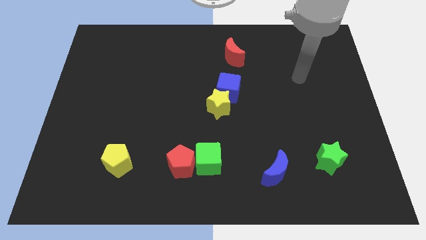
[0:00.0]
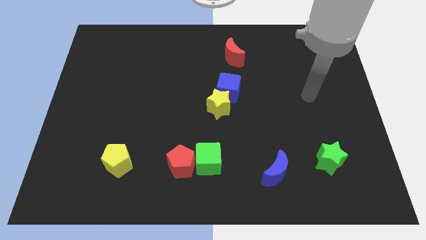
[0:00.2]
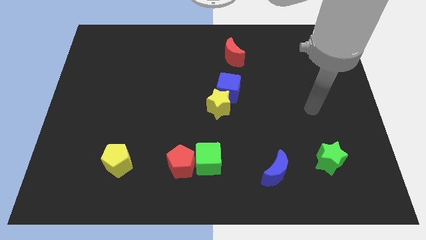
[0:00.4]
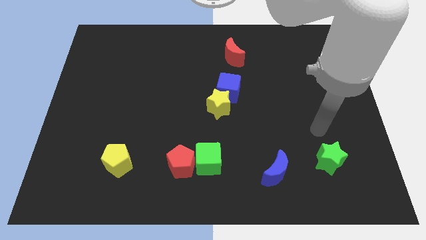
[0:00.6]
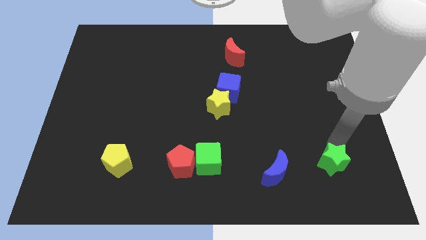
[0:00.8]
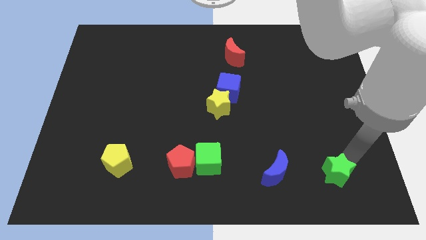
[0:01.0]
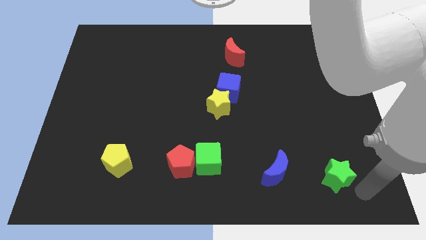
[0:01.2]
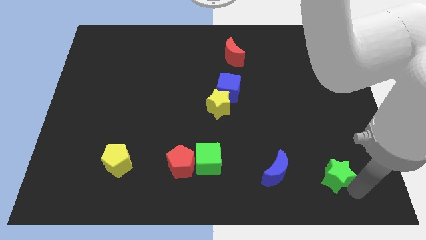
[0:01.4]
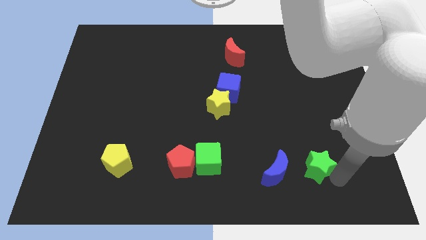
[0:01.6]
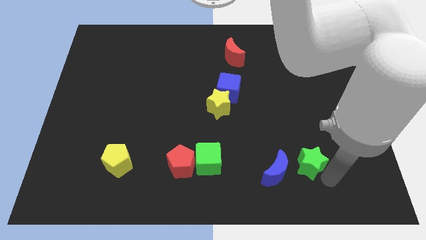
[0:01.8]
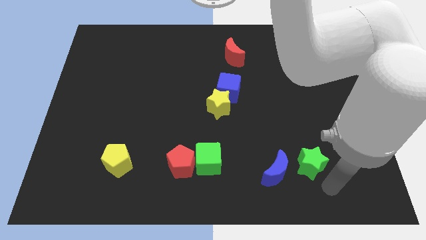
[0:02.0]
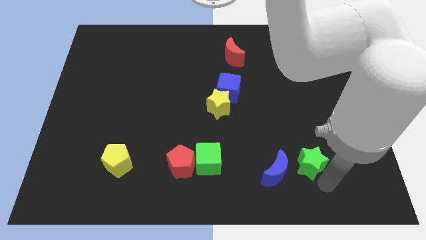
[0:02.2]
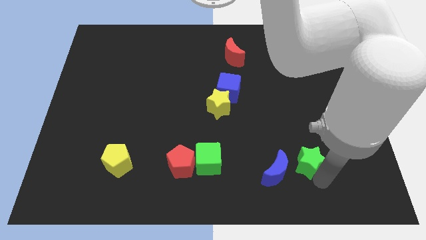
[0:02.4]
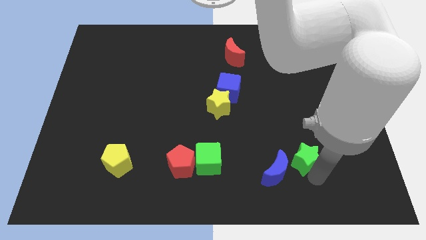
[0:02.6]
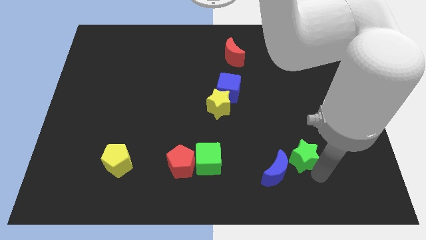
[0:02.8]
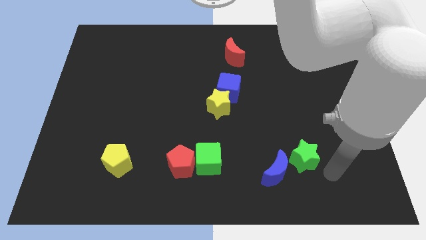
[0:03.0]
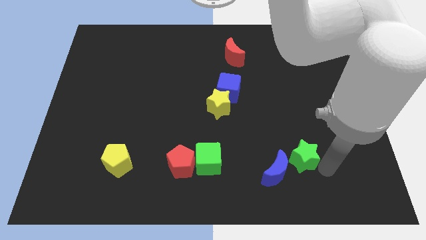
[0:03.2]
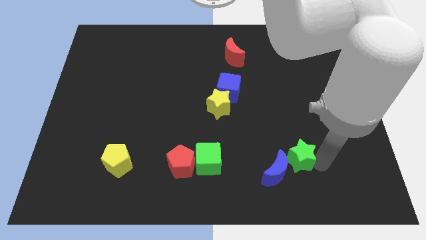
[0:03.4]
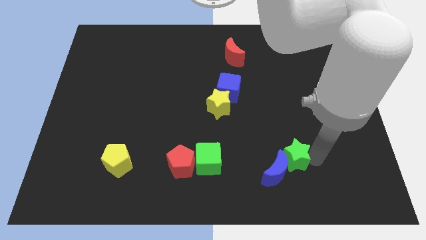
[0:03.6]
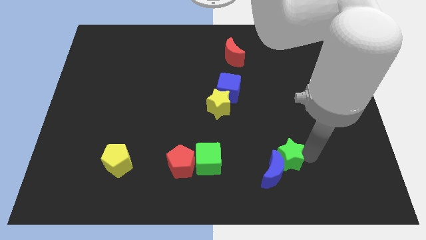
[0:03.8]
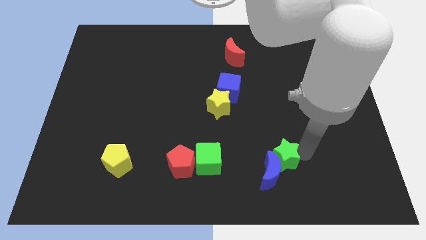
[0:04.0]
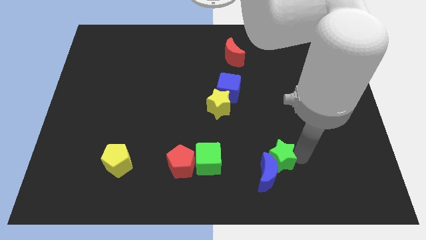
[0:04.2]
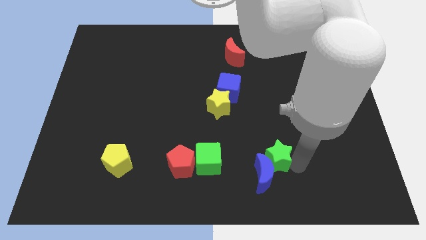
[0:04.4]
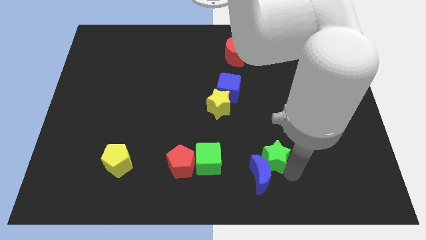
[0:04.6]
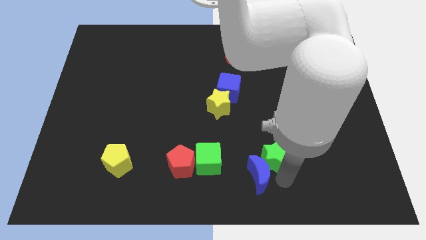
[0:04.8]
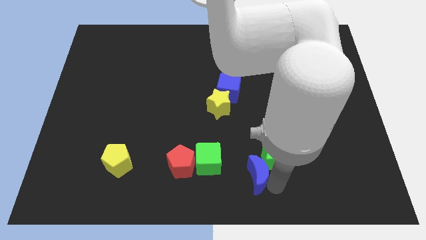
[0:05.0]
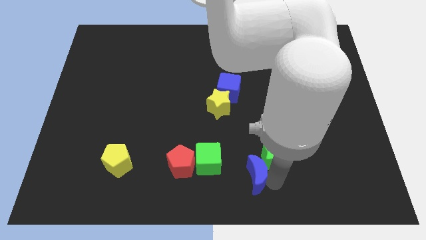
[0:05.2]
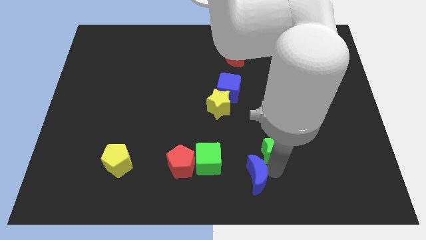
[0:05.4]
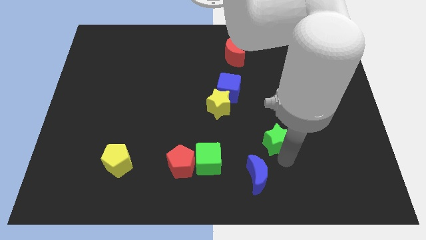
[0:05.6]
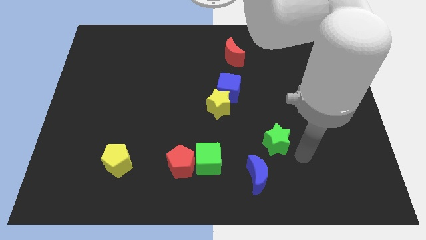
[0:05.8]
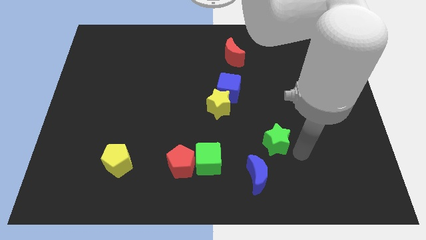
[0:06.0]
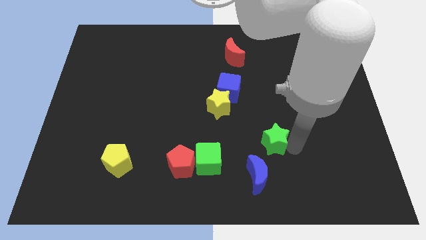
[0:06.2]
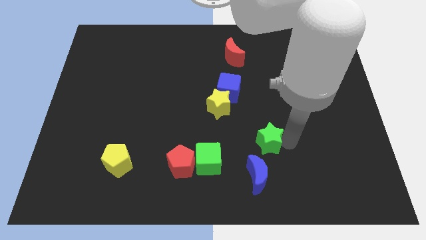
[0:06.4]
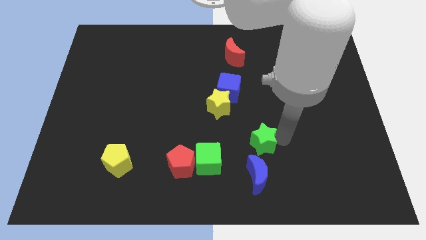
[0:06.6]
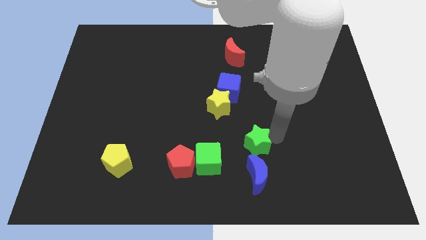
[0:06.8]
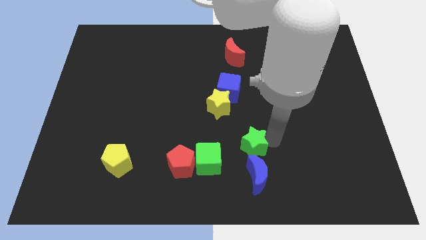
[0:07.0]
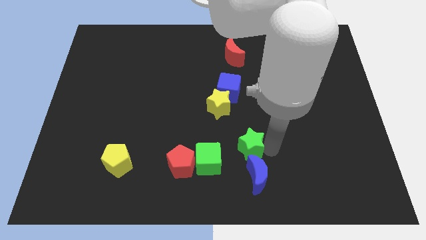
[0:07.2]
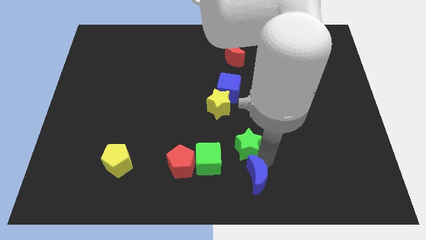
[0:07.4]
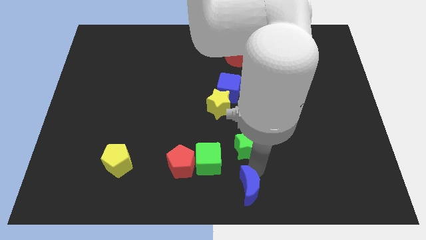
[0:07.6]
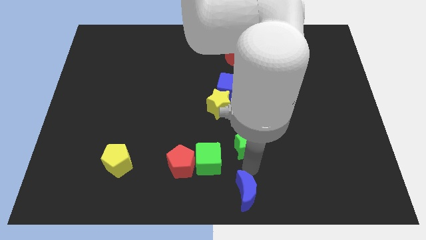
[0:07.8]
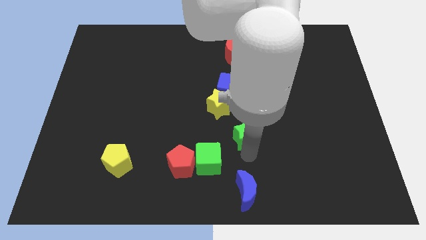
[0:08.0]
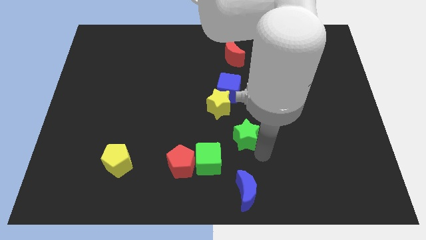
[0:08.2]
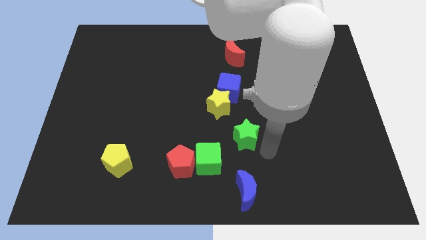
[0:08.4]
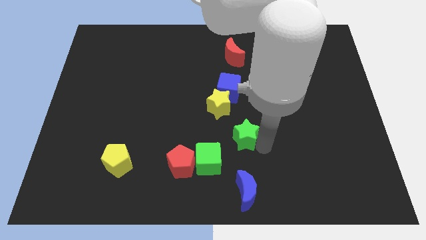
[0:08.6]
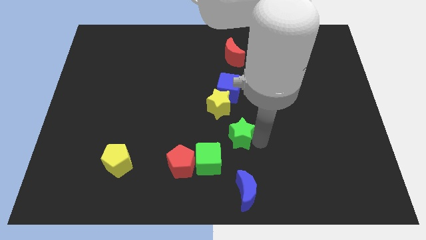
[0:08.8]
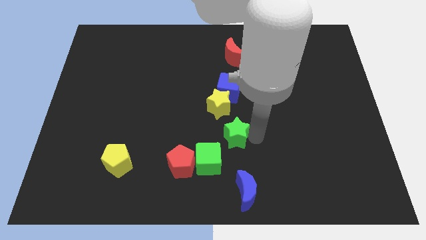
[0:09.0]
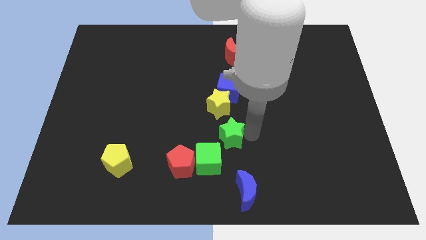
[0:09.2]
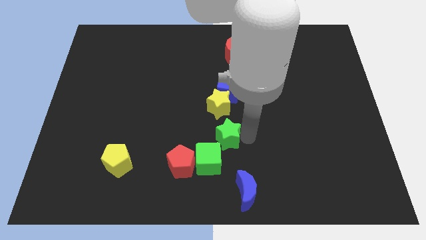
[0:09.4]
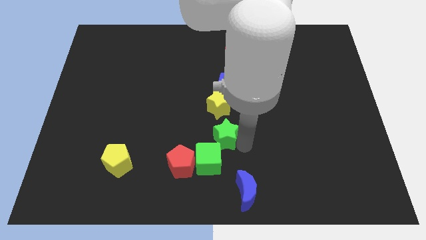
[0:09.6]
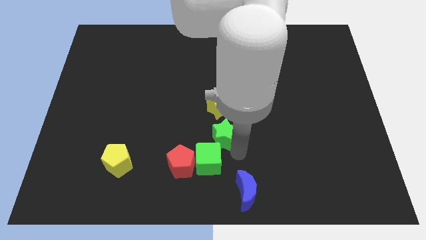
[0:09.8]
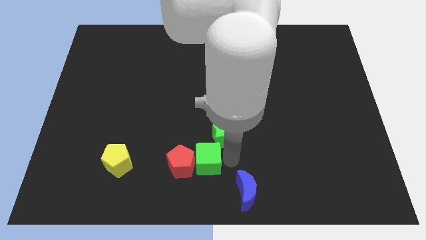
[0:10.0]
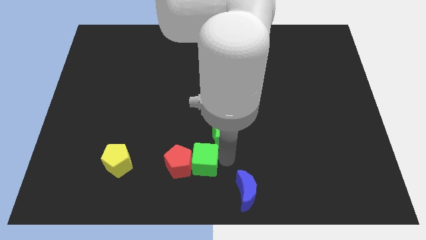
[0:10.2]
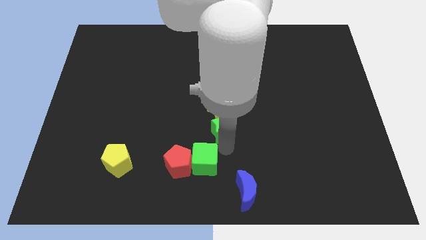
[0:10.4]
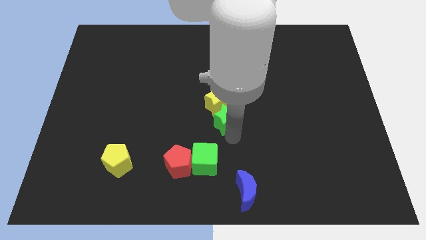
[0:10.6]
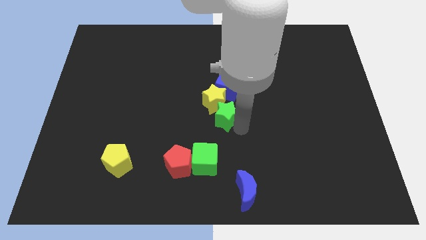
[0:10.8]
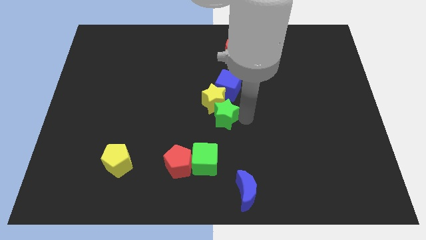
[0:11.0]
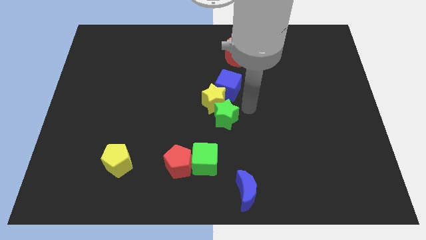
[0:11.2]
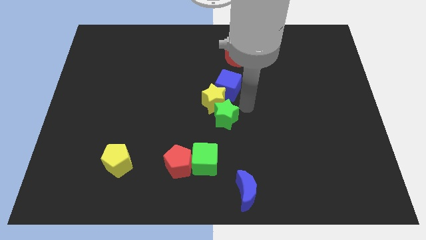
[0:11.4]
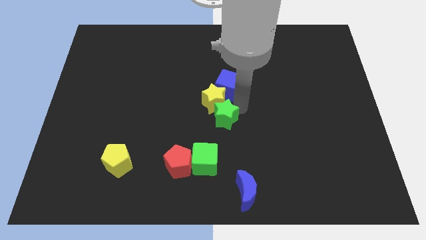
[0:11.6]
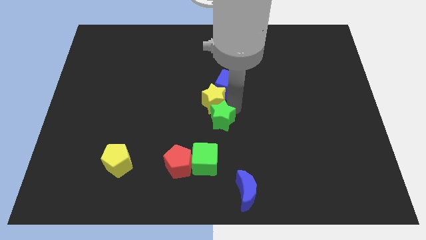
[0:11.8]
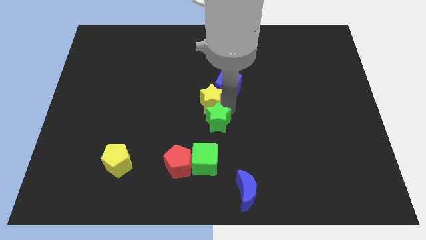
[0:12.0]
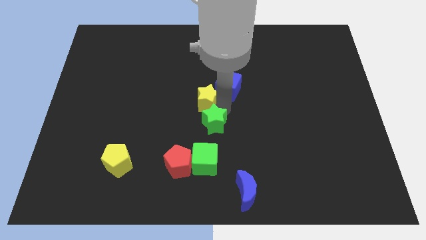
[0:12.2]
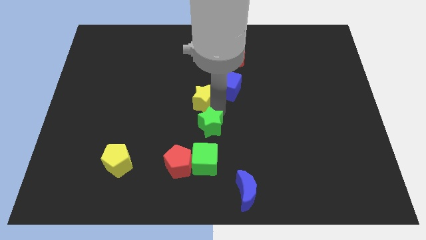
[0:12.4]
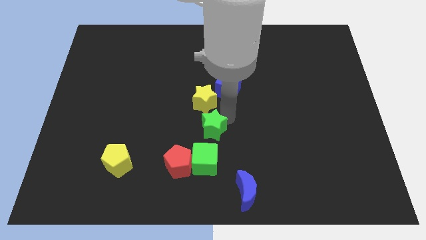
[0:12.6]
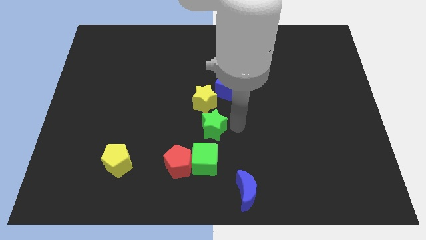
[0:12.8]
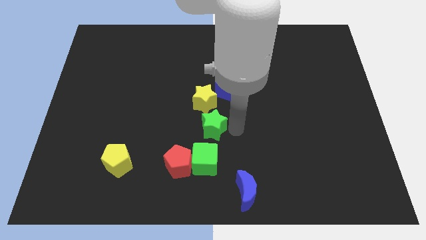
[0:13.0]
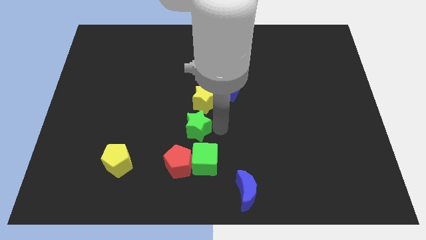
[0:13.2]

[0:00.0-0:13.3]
put the green star above the red pentagon
